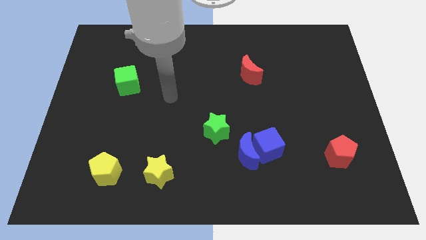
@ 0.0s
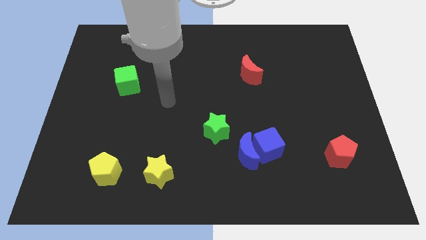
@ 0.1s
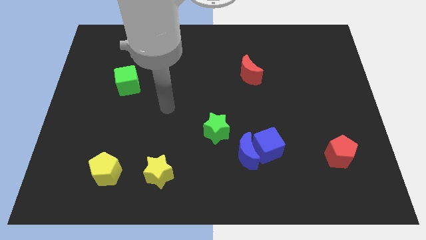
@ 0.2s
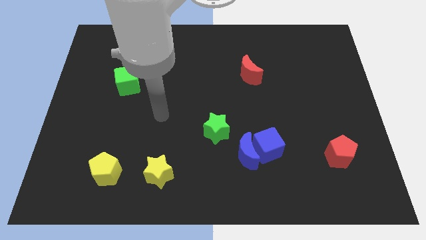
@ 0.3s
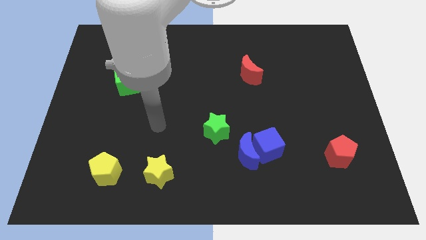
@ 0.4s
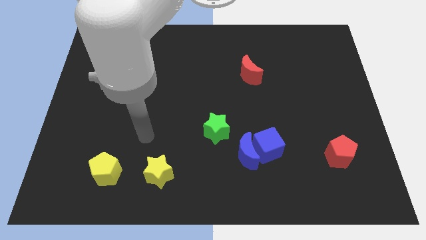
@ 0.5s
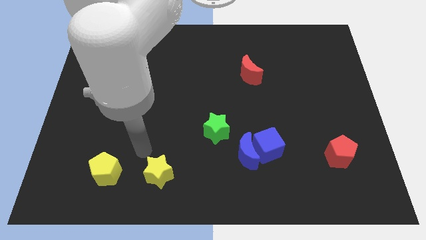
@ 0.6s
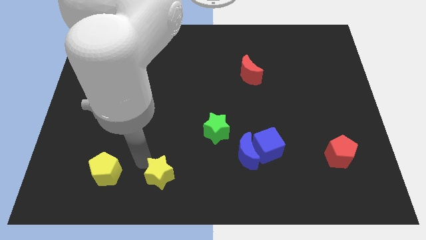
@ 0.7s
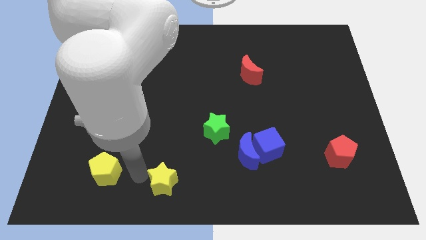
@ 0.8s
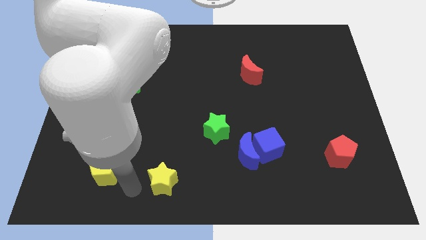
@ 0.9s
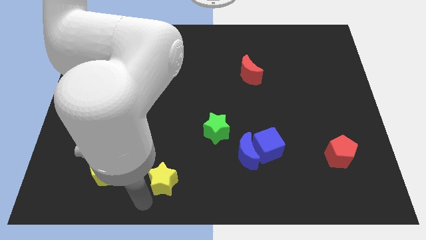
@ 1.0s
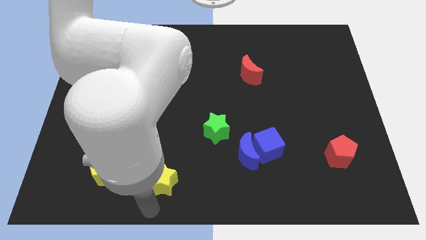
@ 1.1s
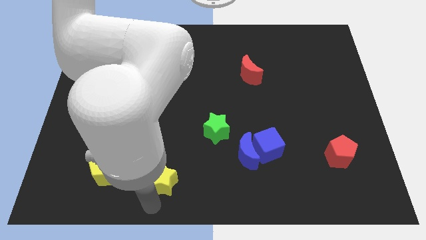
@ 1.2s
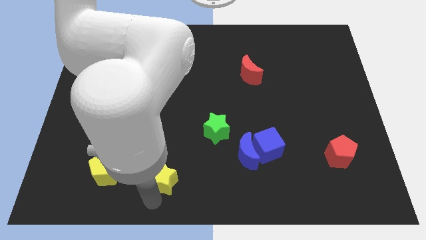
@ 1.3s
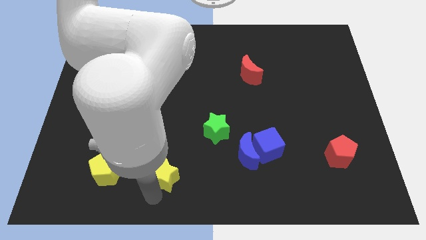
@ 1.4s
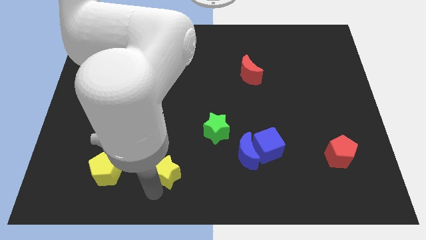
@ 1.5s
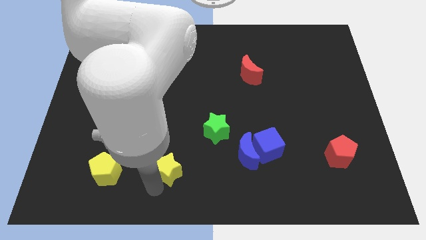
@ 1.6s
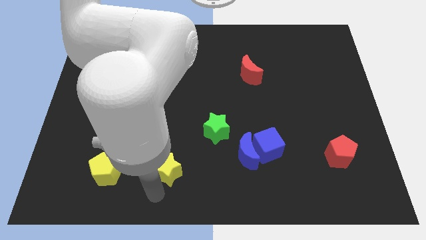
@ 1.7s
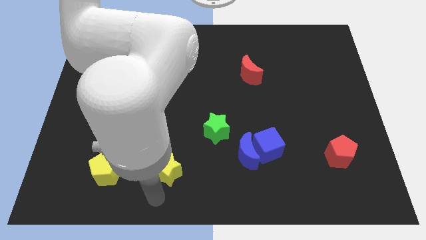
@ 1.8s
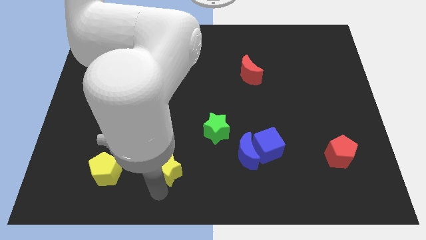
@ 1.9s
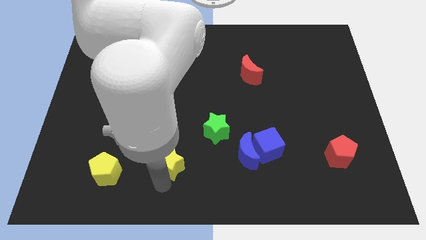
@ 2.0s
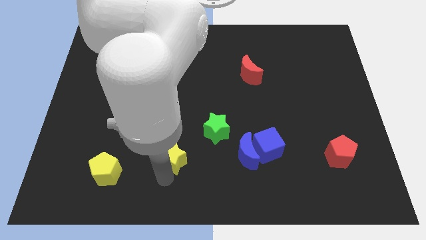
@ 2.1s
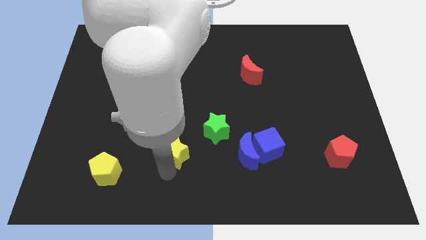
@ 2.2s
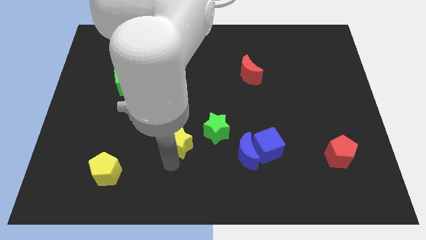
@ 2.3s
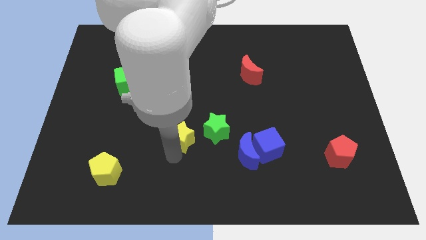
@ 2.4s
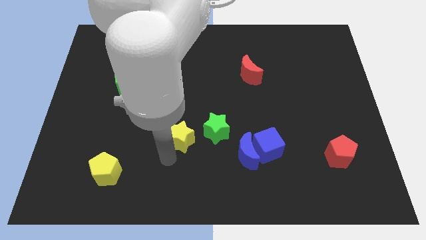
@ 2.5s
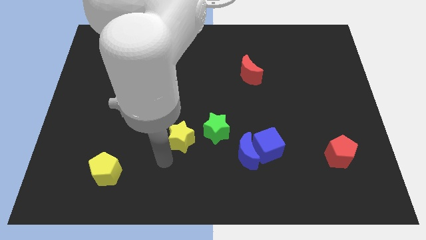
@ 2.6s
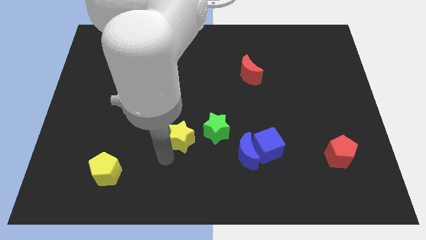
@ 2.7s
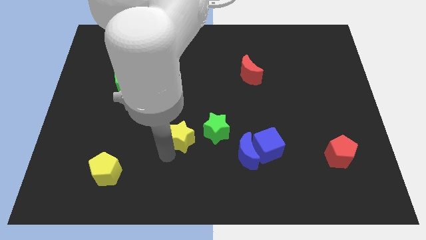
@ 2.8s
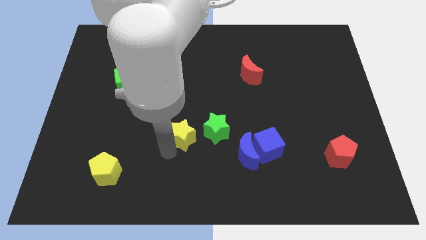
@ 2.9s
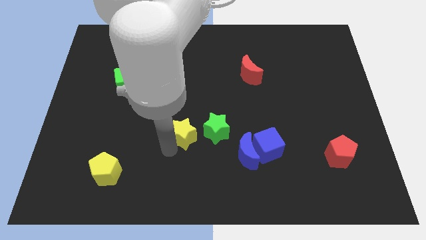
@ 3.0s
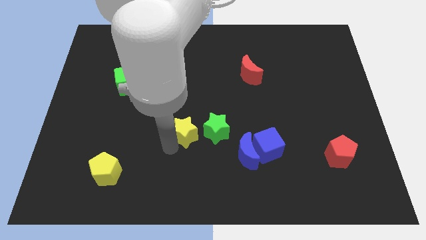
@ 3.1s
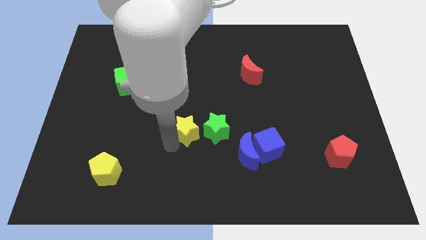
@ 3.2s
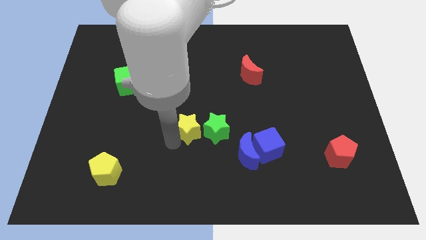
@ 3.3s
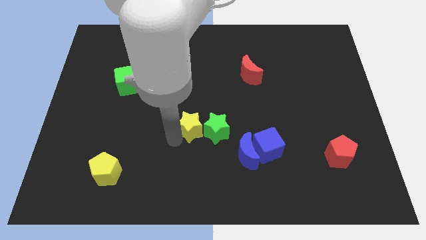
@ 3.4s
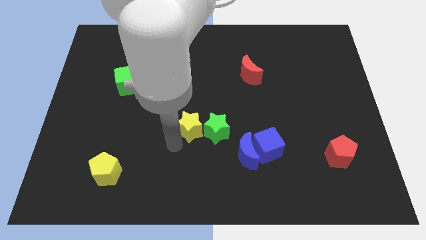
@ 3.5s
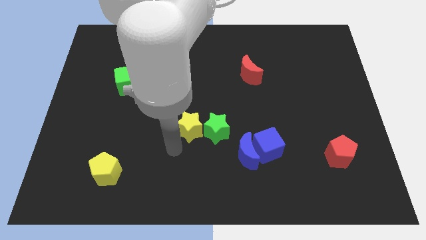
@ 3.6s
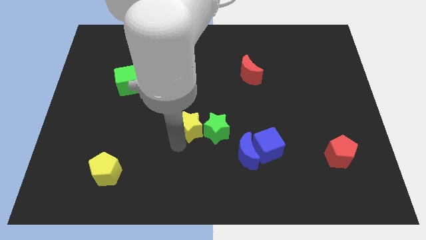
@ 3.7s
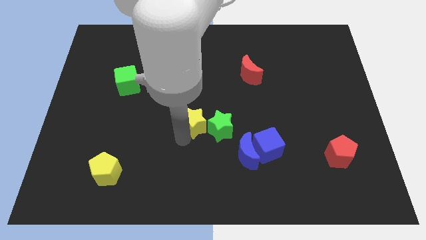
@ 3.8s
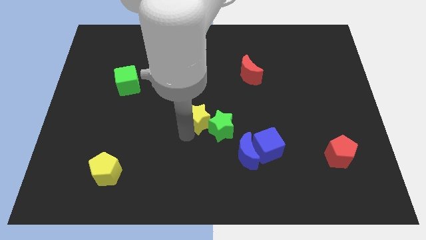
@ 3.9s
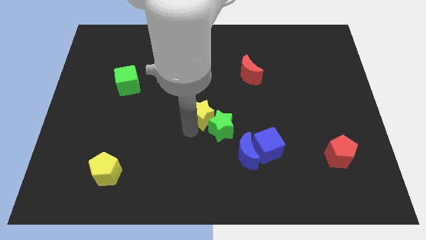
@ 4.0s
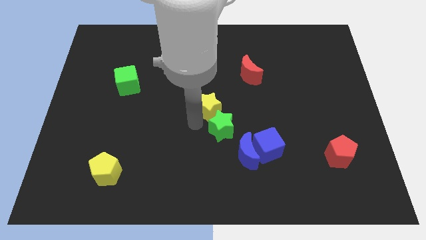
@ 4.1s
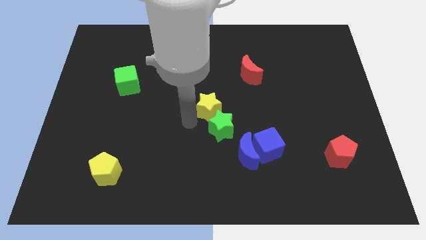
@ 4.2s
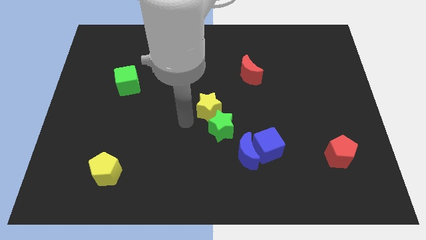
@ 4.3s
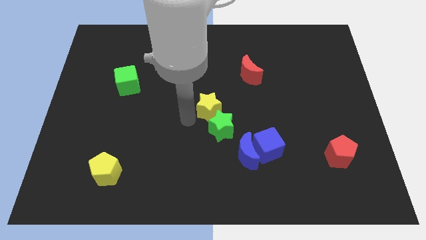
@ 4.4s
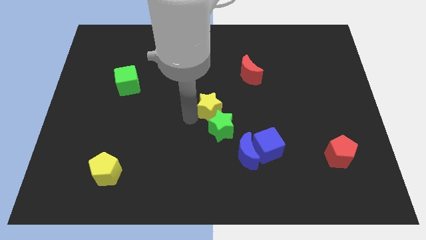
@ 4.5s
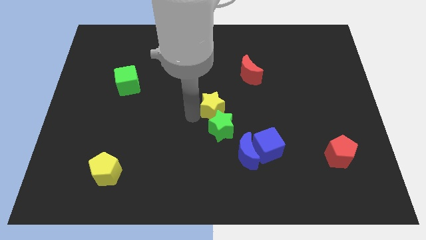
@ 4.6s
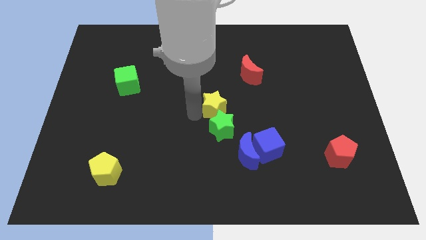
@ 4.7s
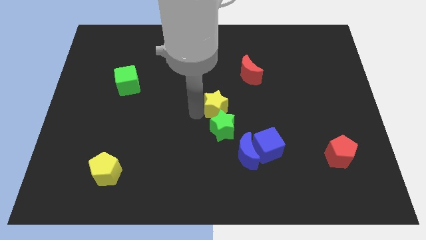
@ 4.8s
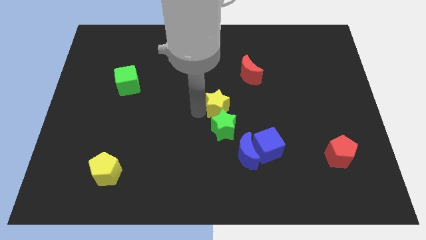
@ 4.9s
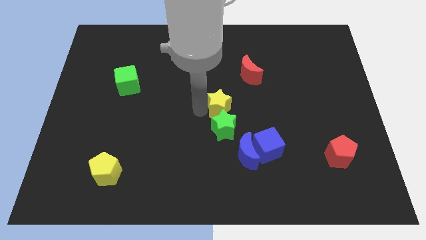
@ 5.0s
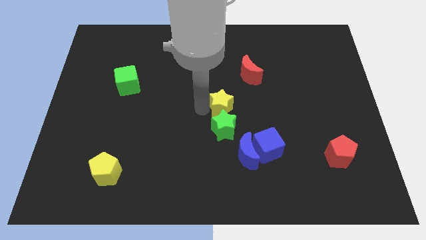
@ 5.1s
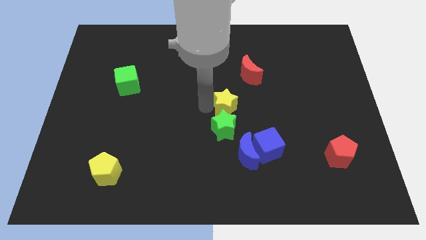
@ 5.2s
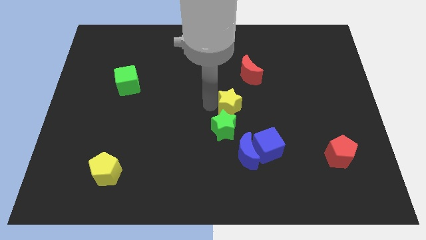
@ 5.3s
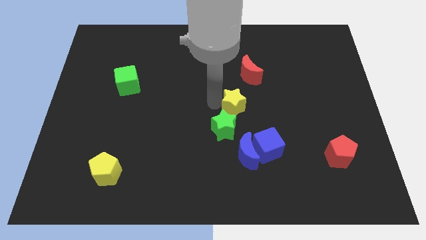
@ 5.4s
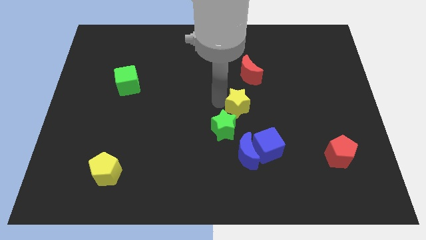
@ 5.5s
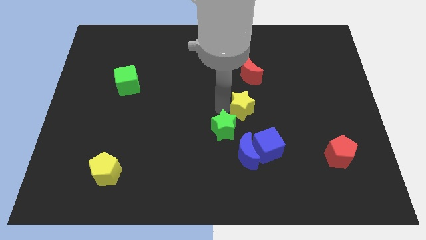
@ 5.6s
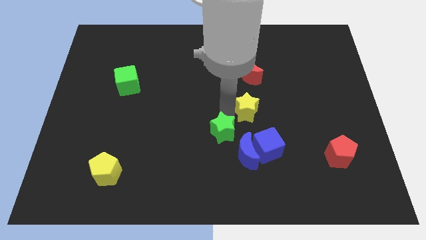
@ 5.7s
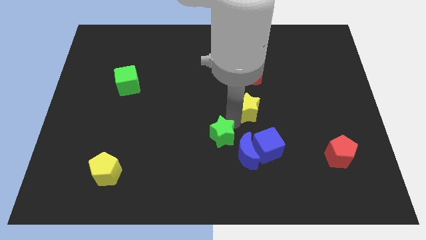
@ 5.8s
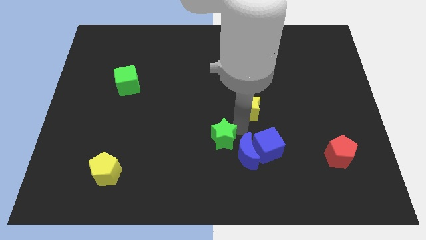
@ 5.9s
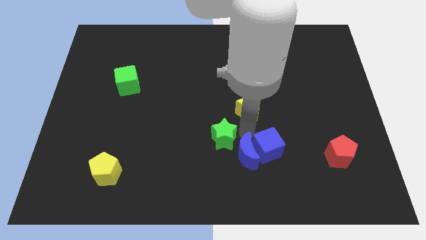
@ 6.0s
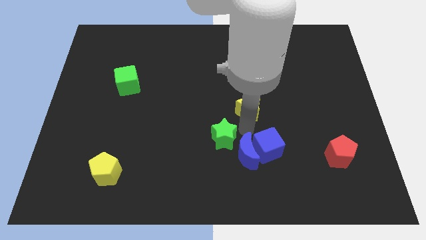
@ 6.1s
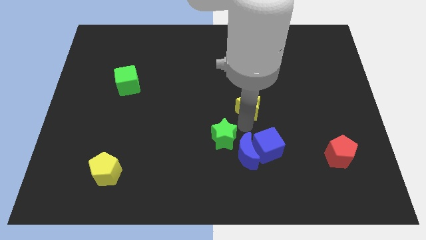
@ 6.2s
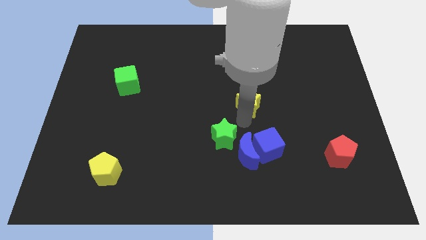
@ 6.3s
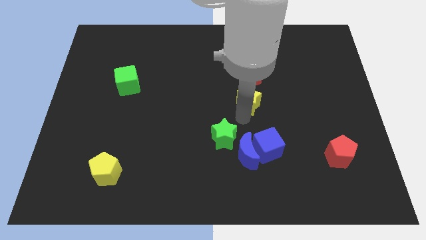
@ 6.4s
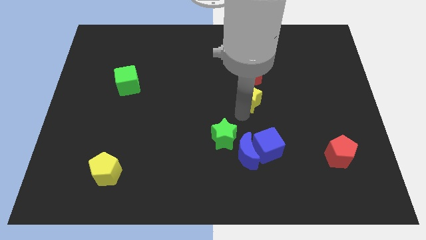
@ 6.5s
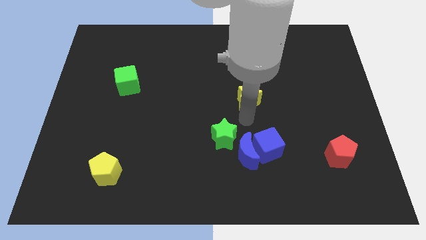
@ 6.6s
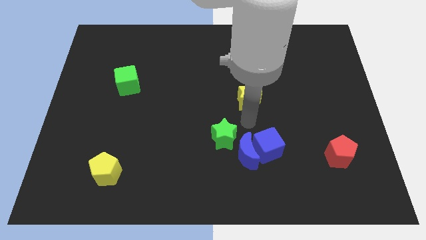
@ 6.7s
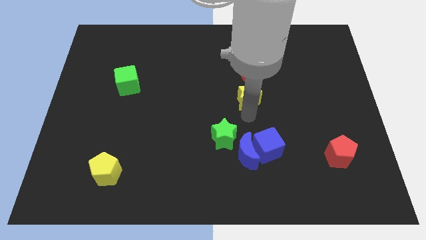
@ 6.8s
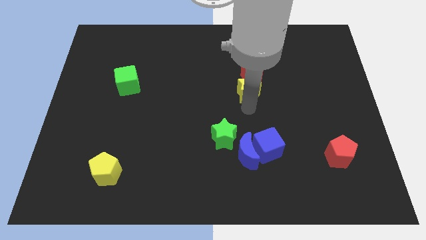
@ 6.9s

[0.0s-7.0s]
put the yellow star next to the red moon

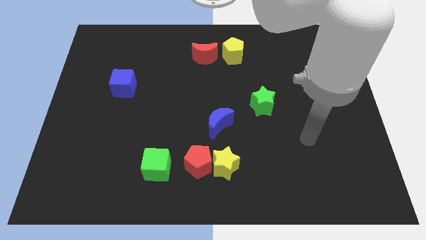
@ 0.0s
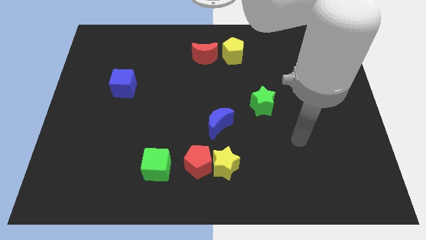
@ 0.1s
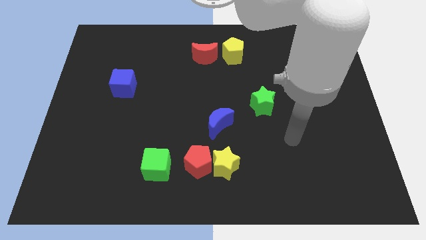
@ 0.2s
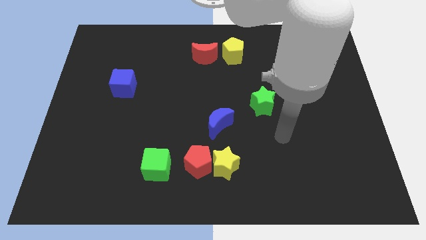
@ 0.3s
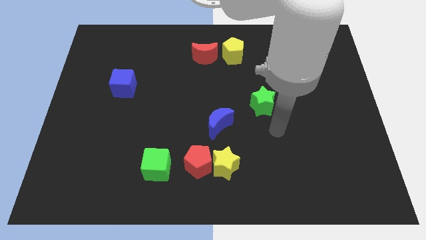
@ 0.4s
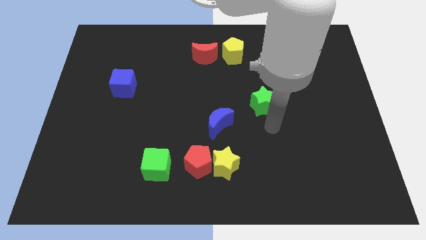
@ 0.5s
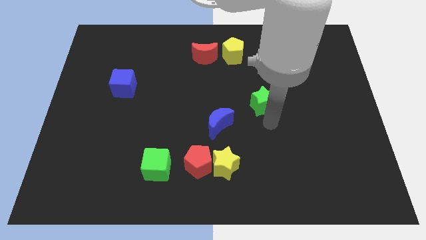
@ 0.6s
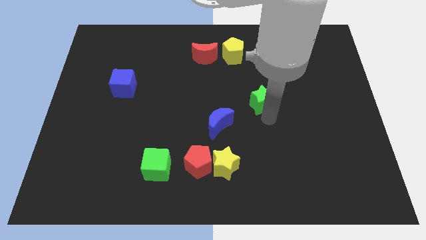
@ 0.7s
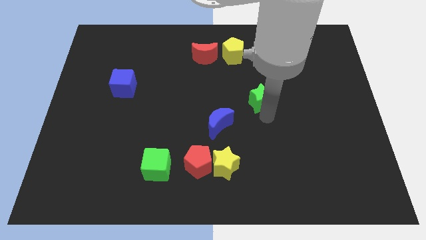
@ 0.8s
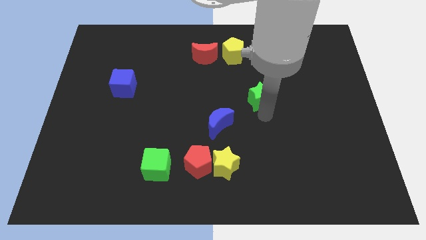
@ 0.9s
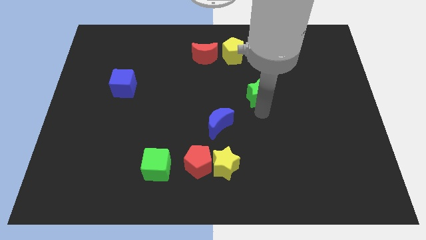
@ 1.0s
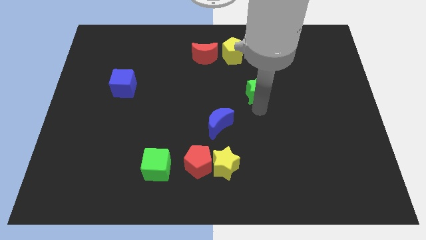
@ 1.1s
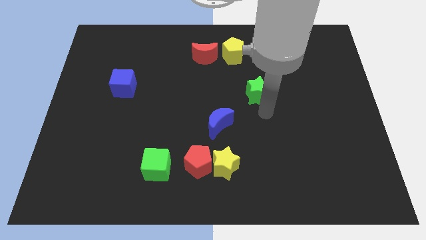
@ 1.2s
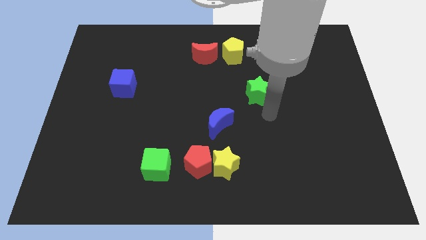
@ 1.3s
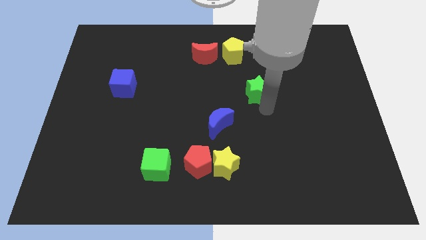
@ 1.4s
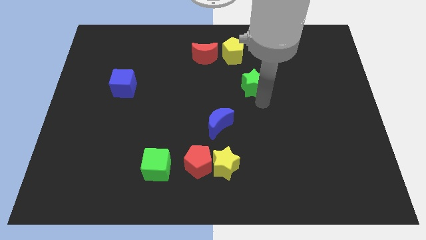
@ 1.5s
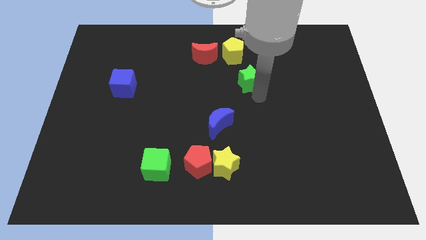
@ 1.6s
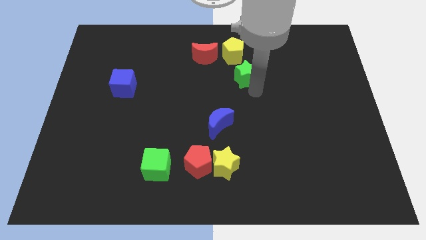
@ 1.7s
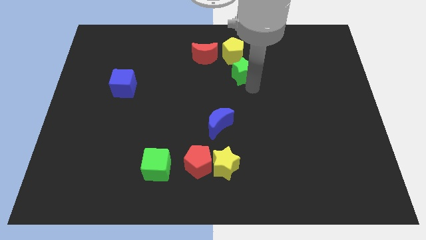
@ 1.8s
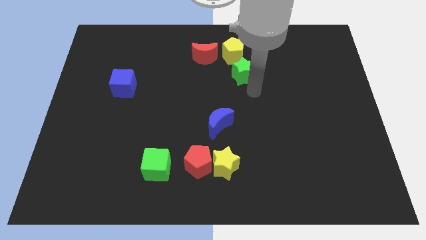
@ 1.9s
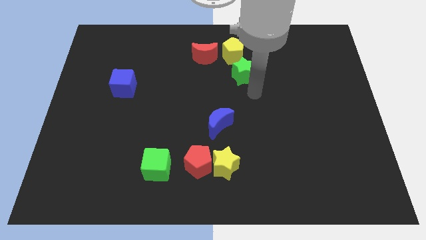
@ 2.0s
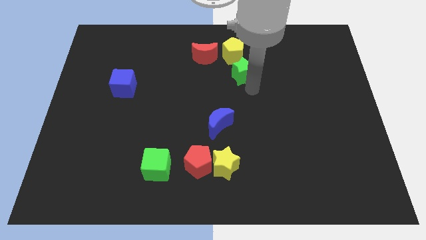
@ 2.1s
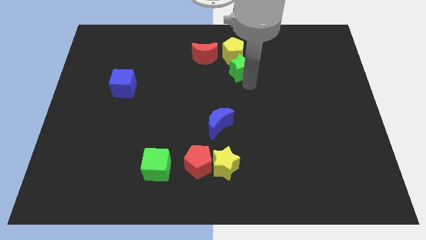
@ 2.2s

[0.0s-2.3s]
slide the green star towards the yellow pentagon
